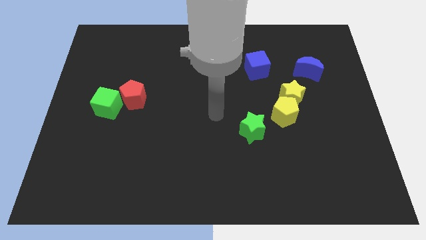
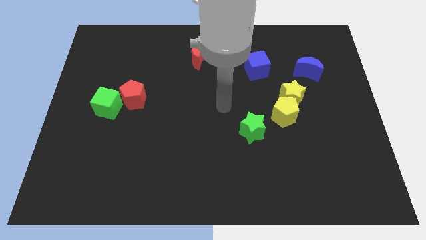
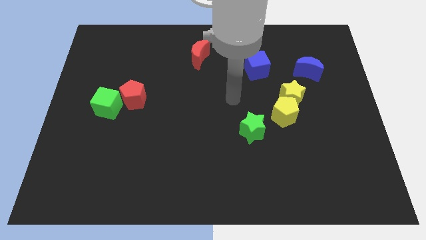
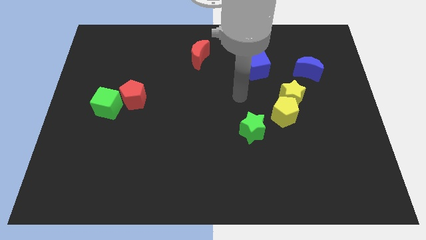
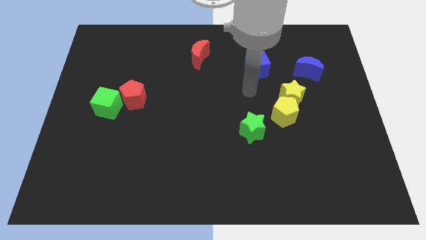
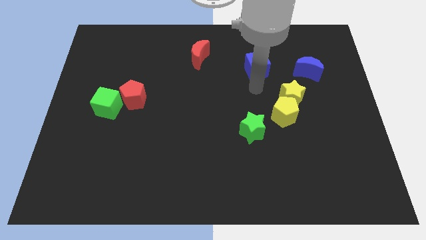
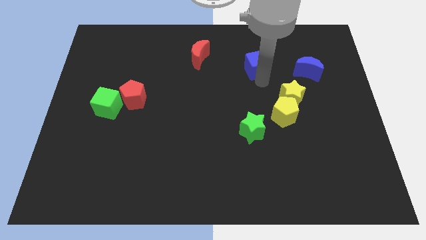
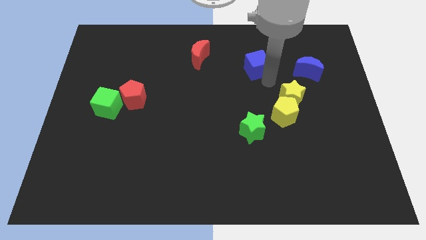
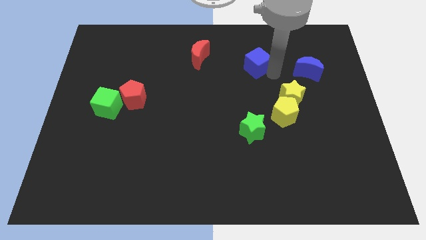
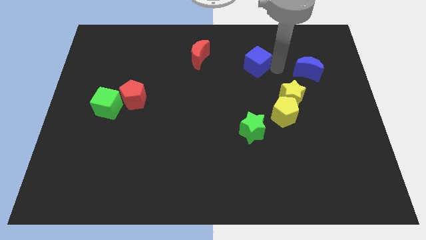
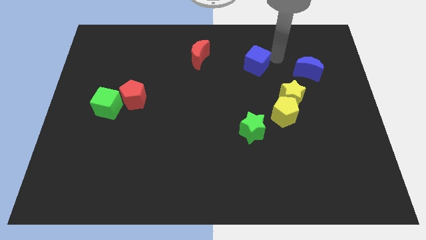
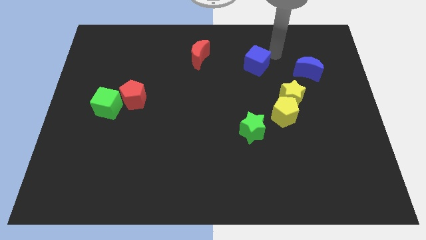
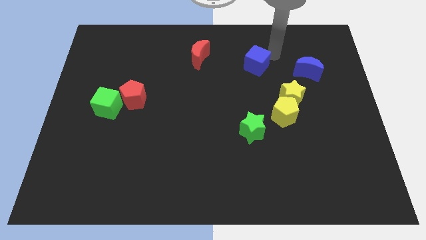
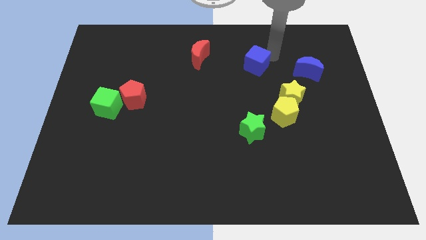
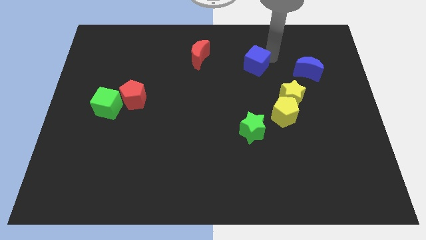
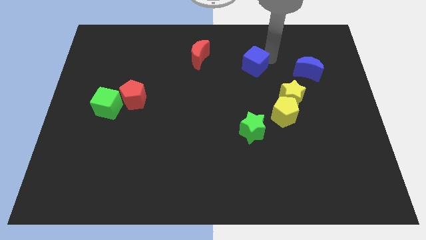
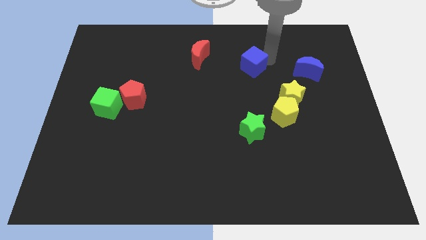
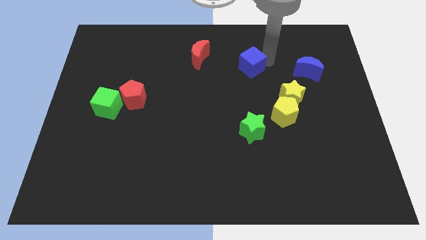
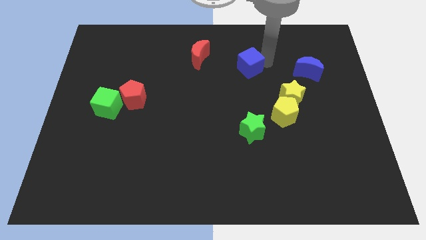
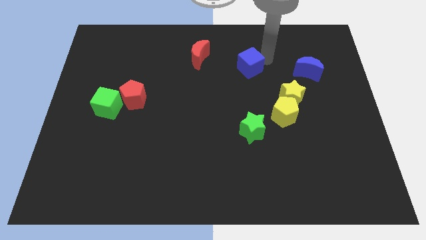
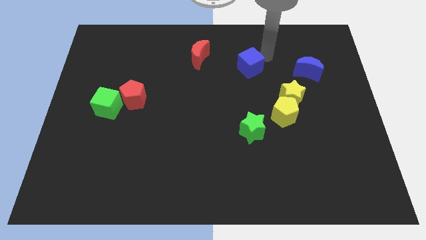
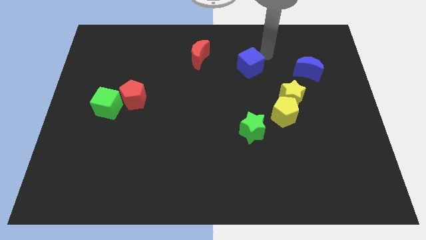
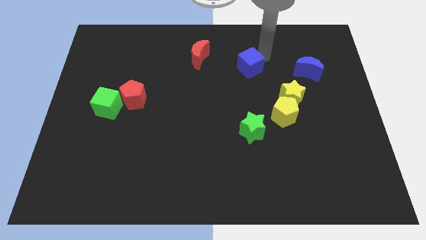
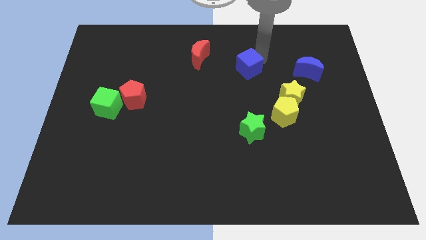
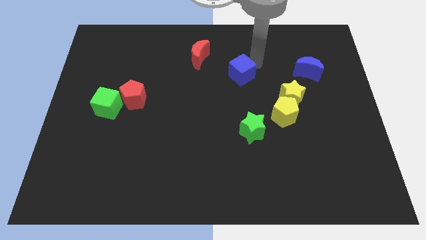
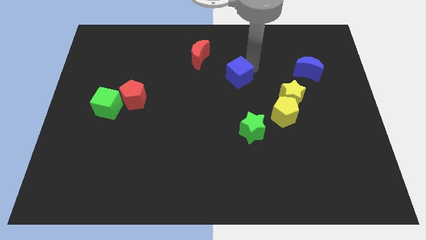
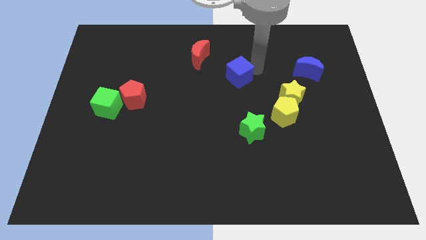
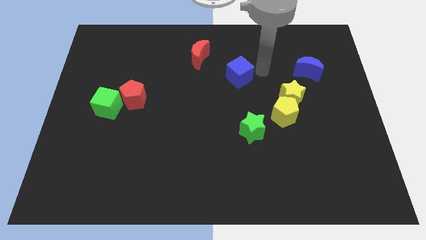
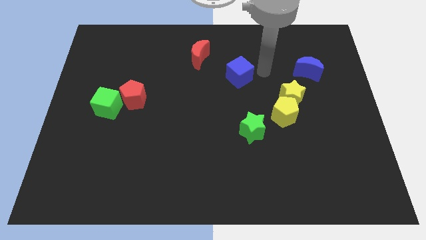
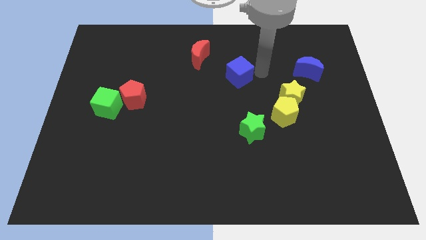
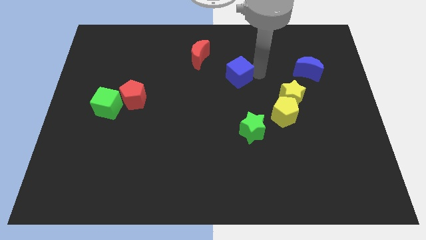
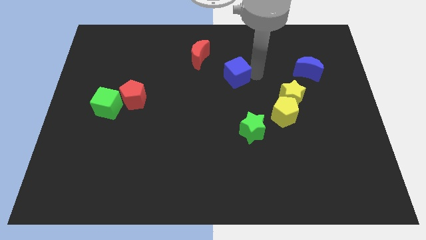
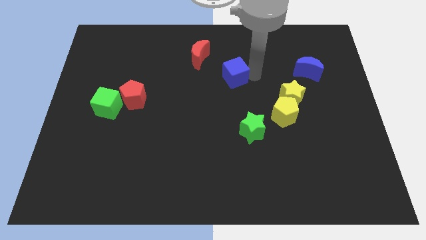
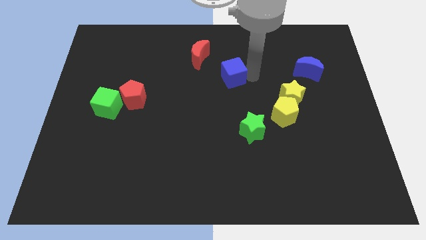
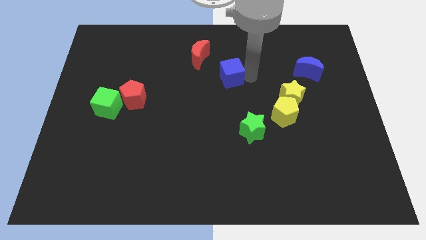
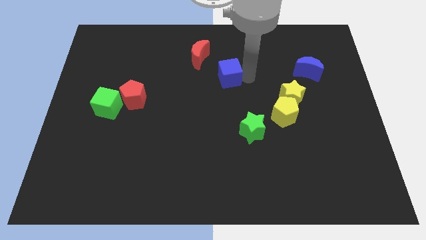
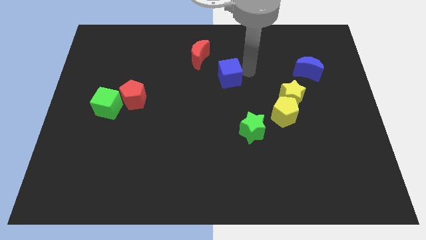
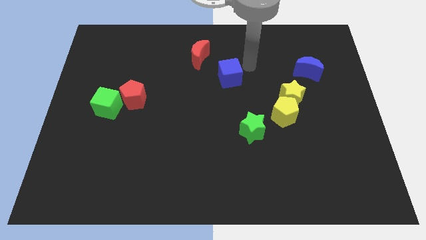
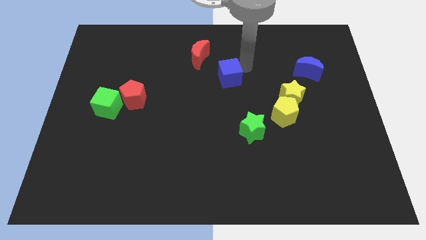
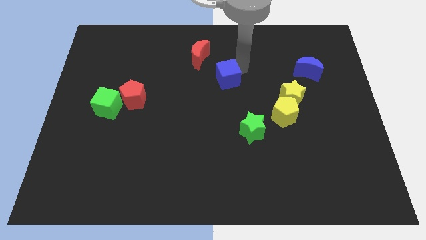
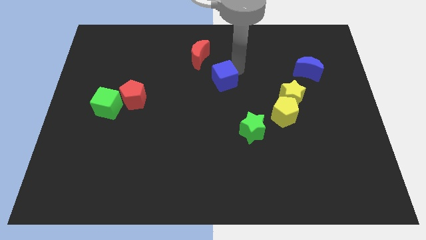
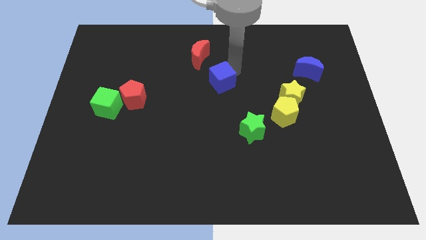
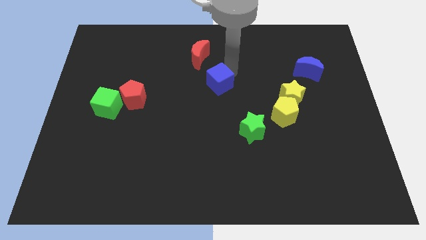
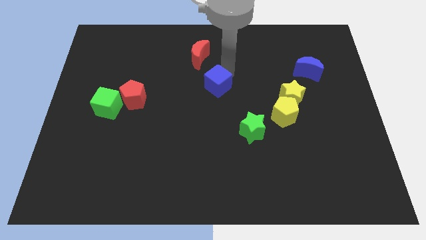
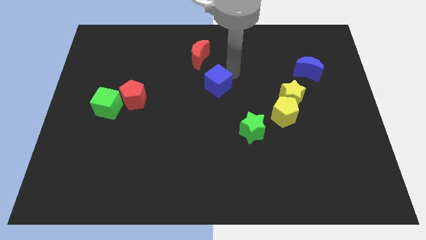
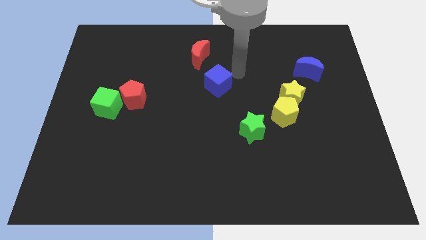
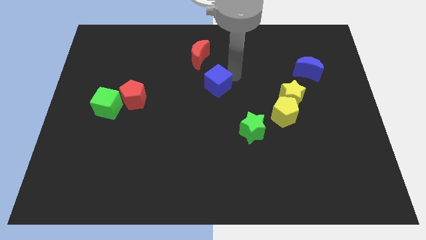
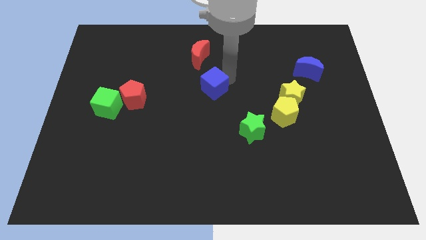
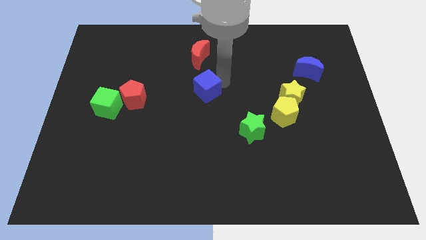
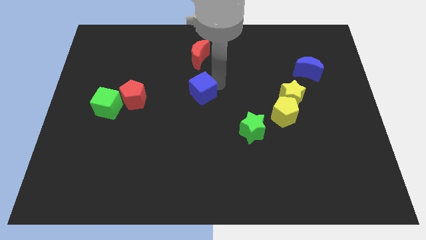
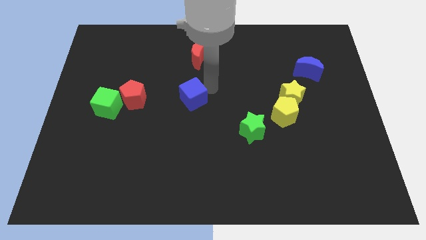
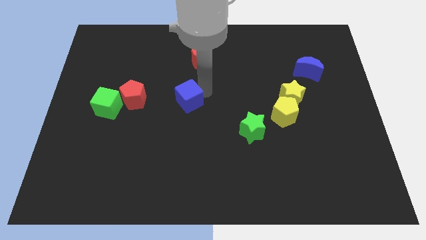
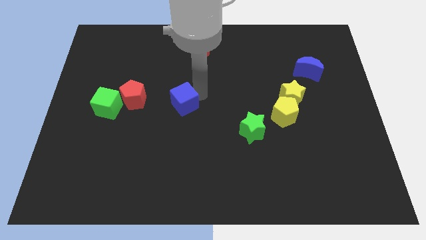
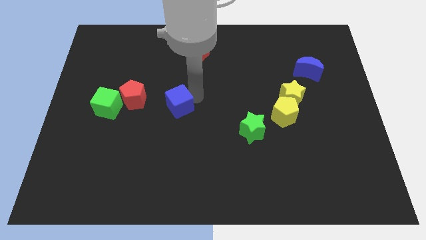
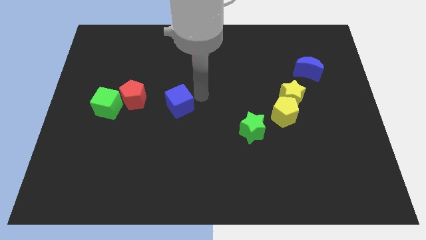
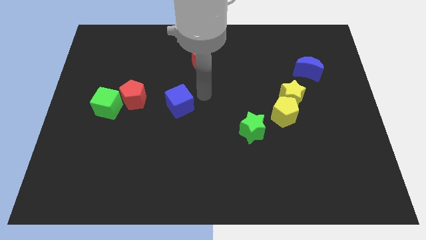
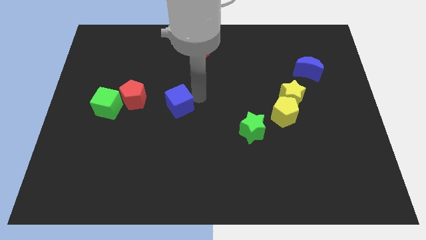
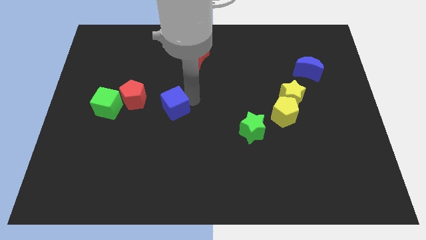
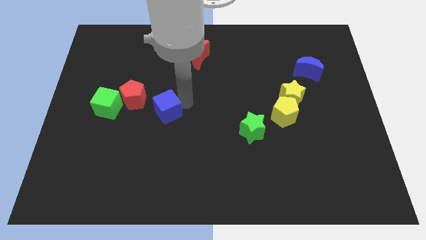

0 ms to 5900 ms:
push the blue cube diagonally down and to the right of the red pentagon

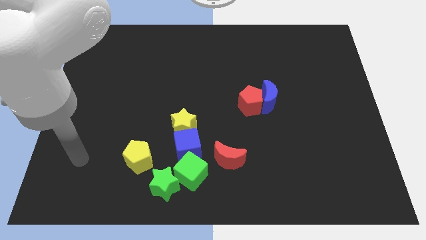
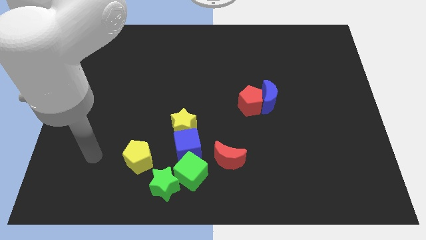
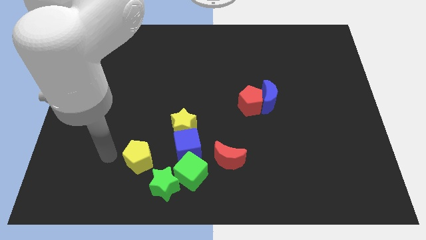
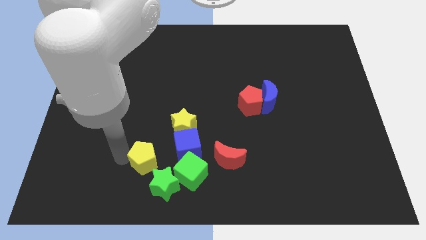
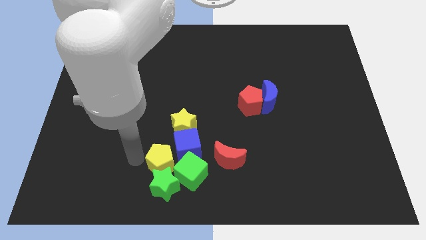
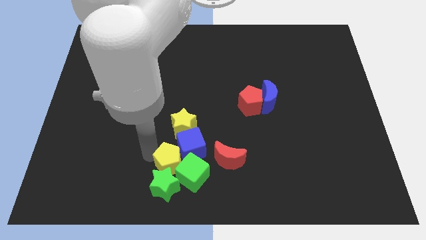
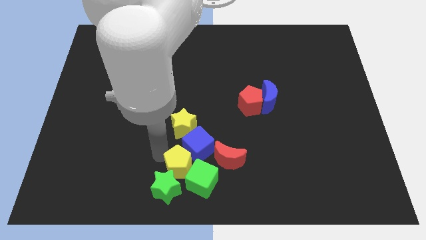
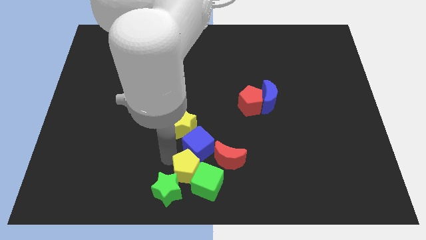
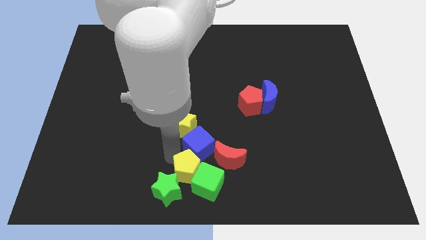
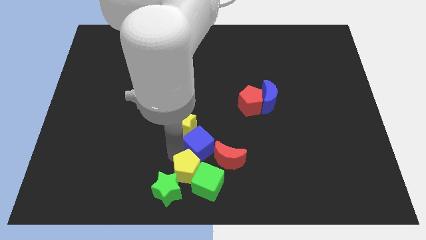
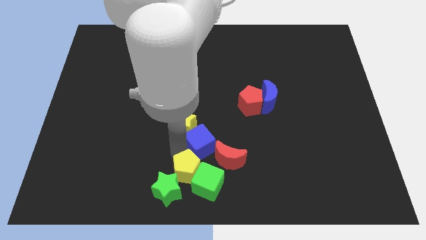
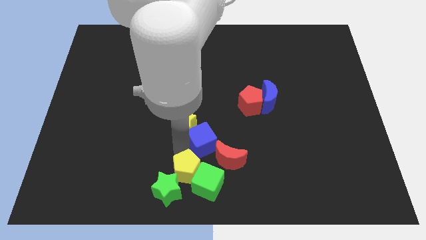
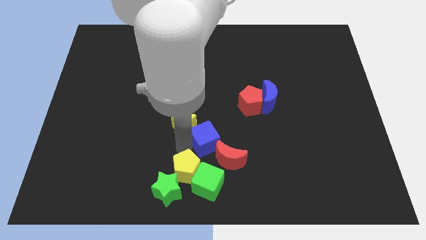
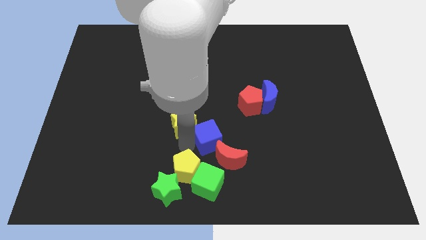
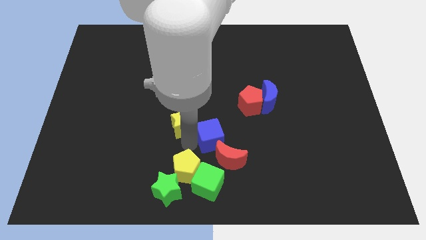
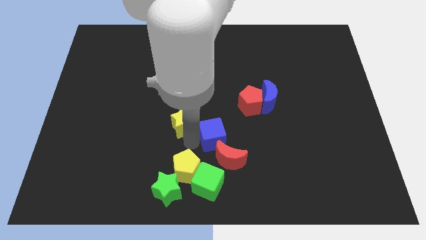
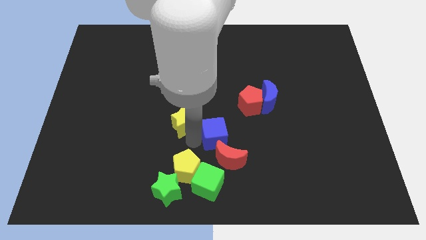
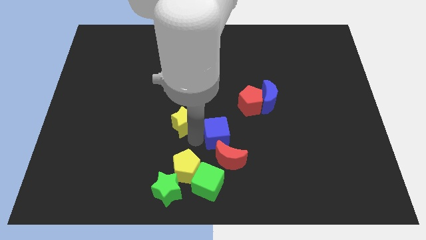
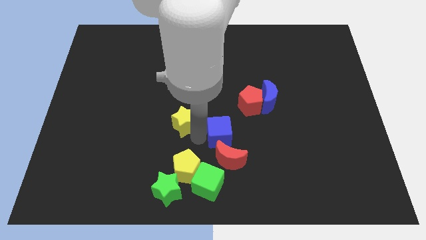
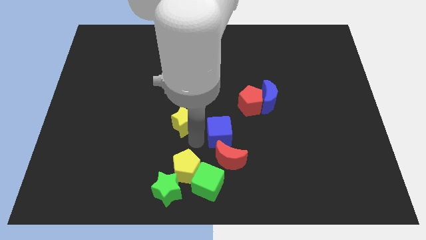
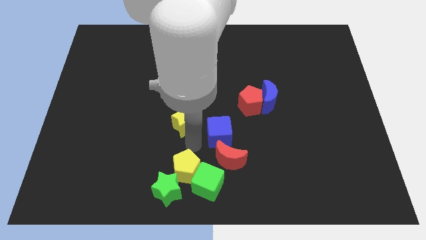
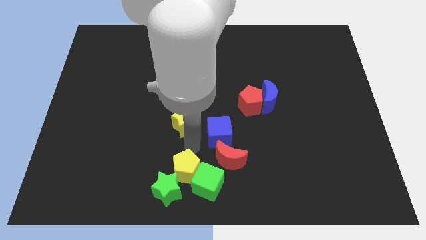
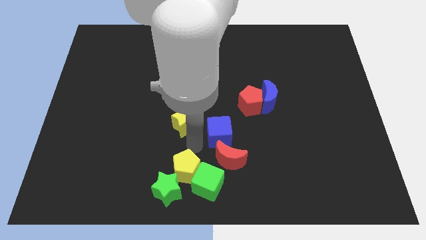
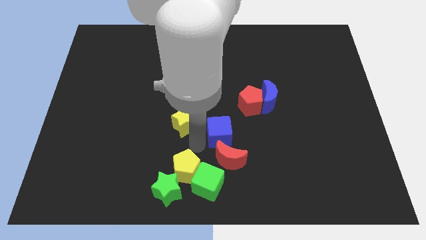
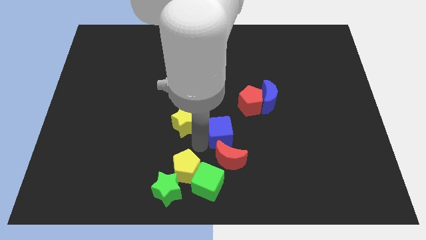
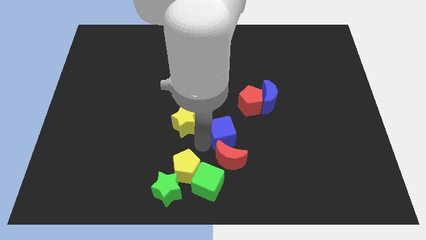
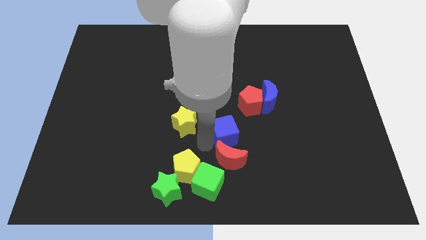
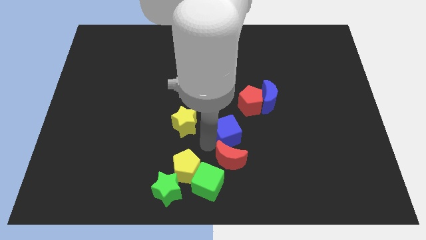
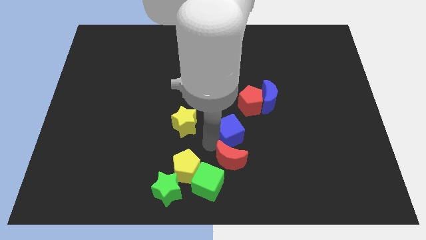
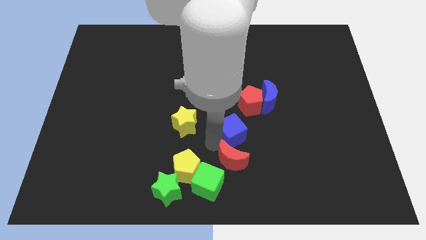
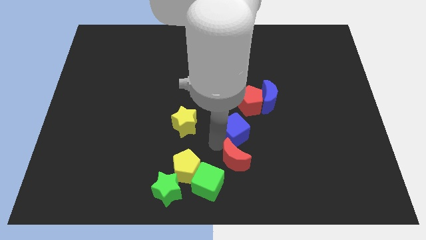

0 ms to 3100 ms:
put the blue cube to the bottom left side of the blue moon
